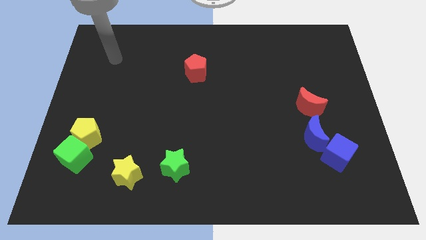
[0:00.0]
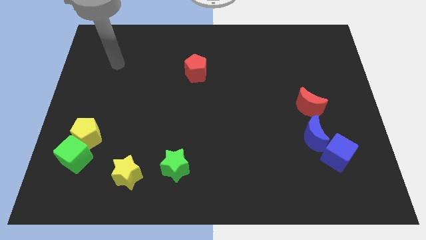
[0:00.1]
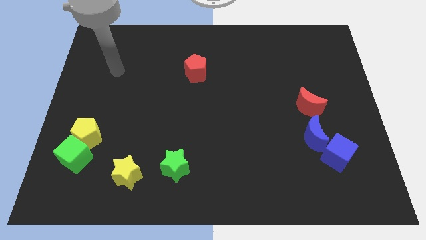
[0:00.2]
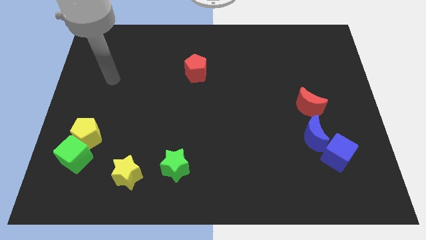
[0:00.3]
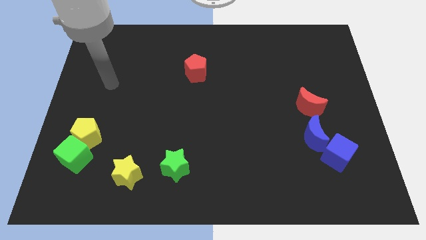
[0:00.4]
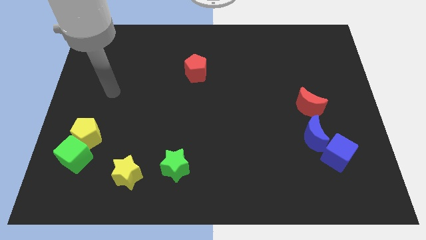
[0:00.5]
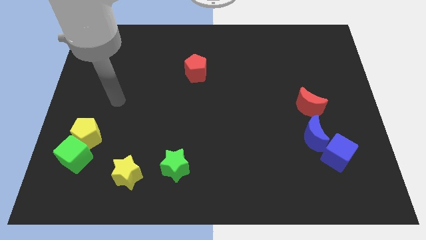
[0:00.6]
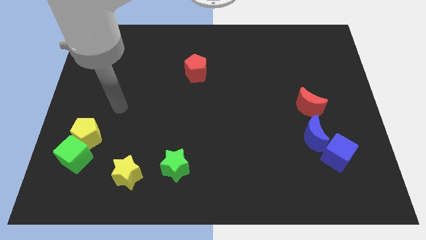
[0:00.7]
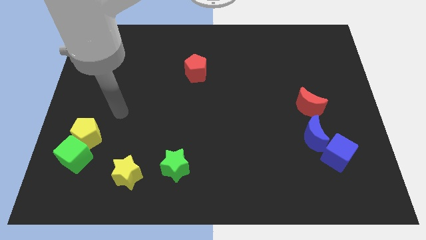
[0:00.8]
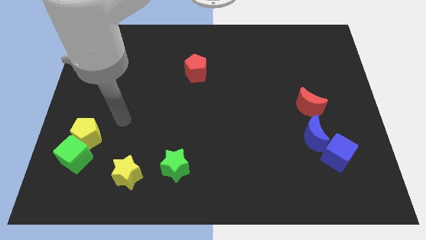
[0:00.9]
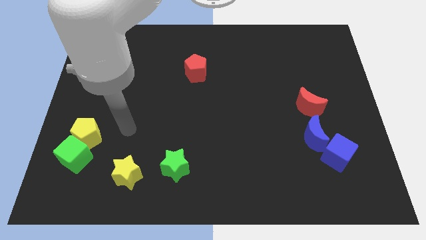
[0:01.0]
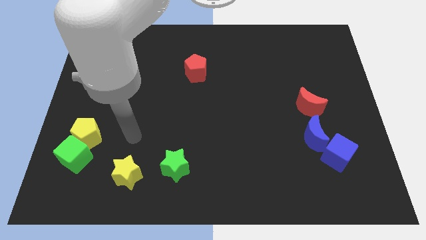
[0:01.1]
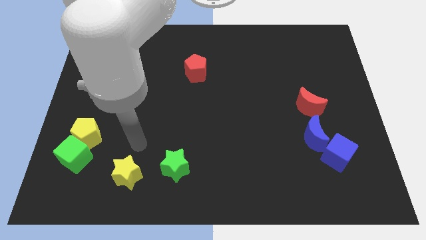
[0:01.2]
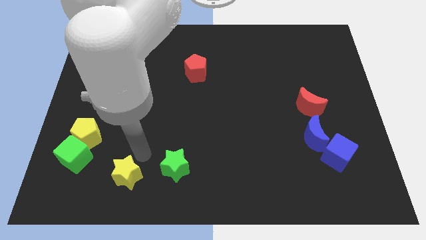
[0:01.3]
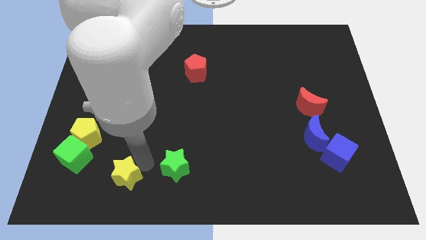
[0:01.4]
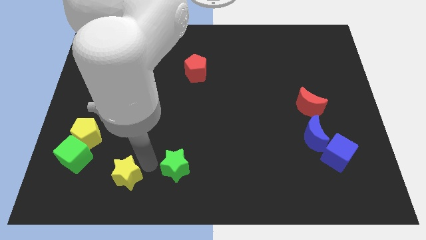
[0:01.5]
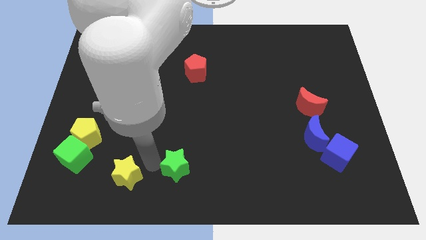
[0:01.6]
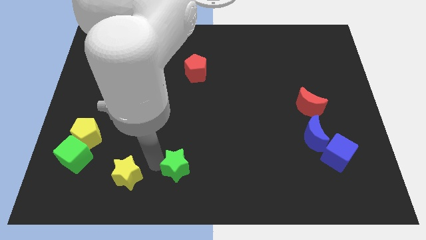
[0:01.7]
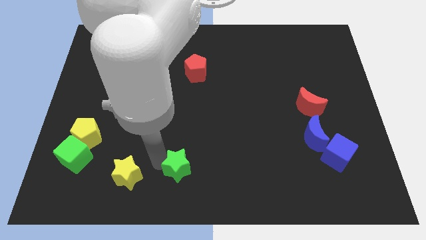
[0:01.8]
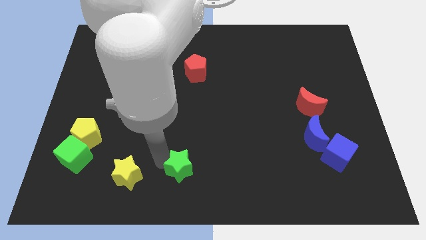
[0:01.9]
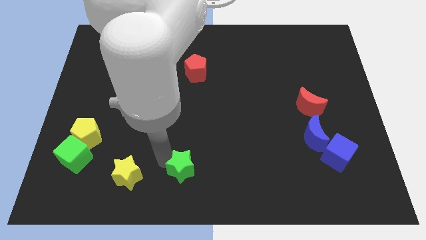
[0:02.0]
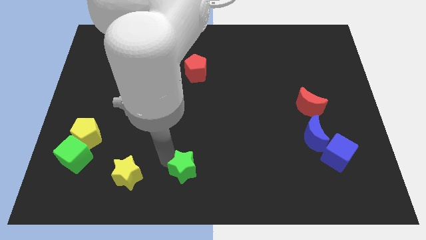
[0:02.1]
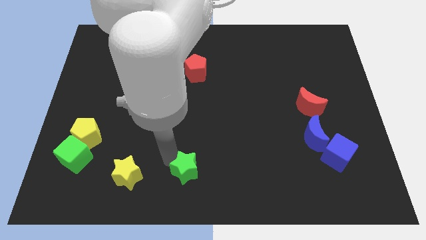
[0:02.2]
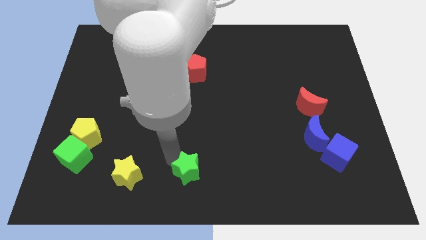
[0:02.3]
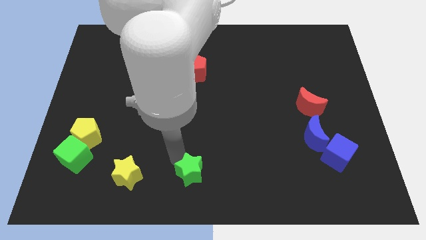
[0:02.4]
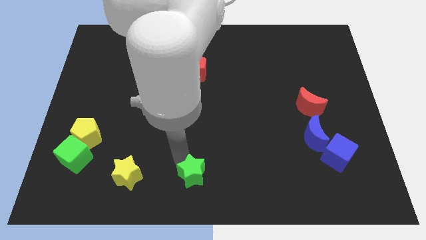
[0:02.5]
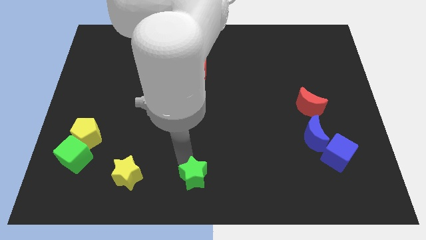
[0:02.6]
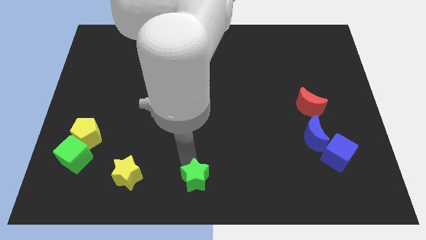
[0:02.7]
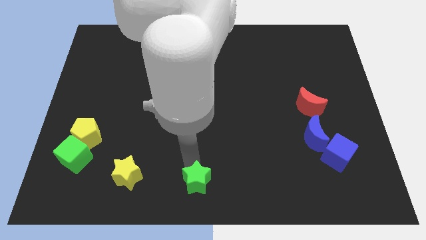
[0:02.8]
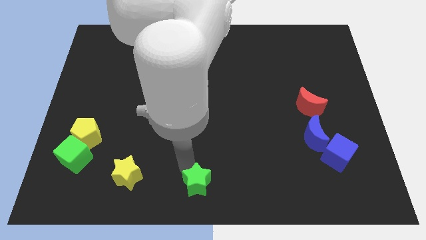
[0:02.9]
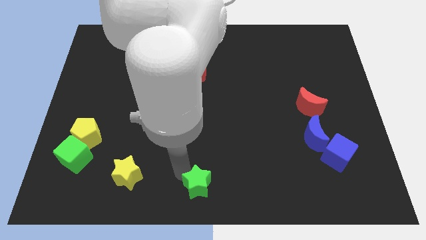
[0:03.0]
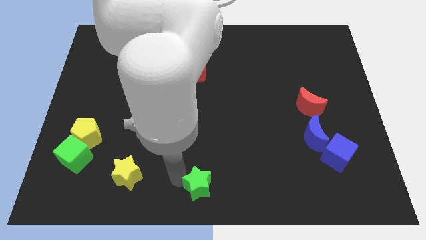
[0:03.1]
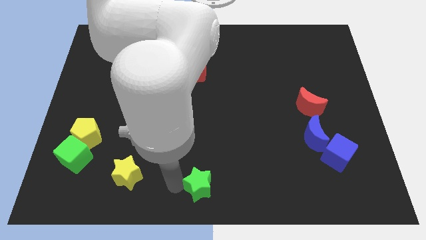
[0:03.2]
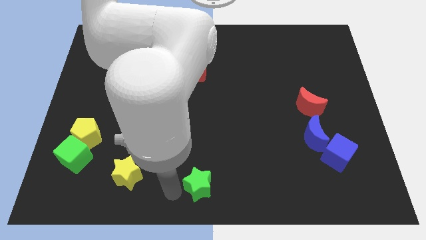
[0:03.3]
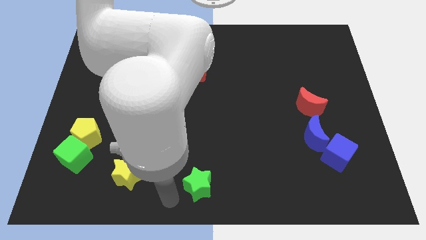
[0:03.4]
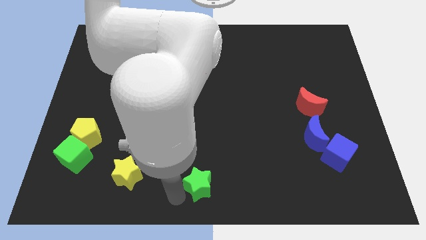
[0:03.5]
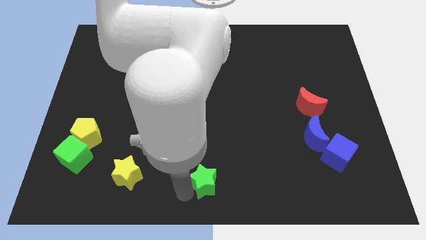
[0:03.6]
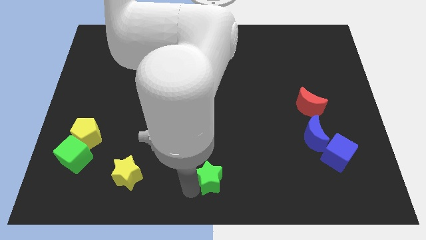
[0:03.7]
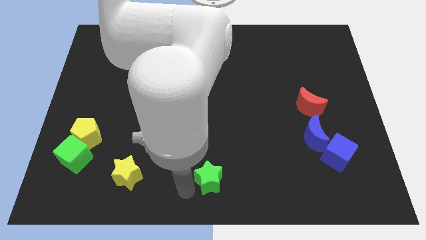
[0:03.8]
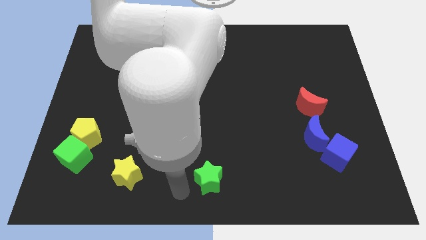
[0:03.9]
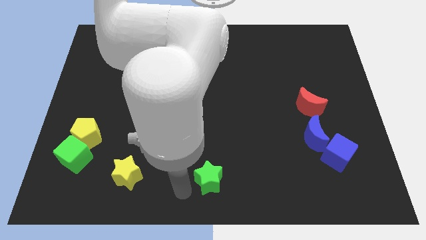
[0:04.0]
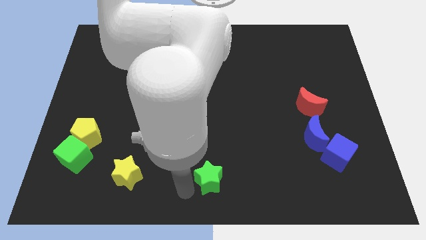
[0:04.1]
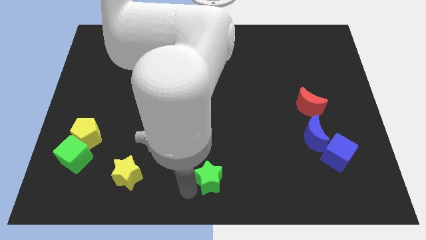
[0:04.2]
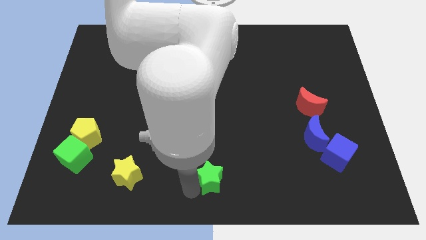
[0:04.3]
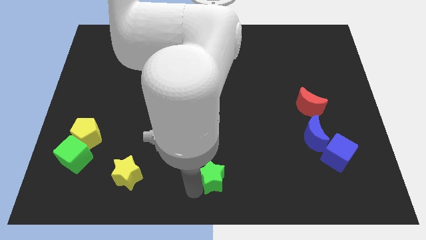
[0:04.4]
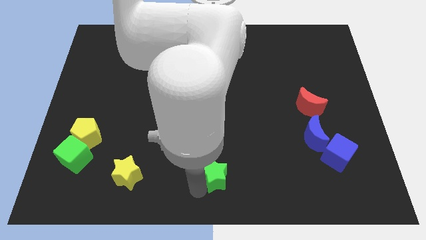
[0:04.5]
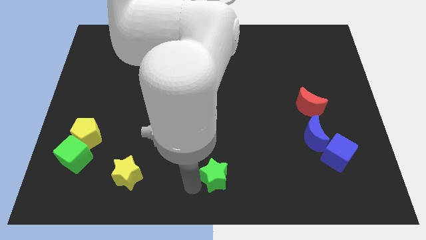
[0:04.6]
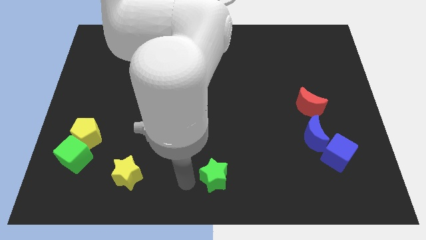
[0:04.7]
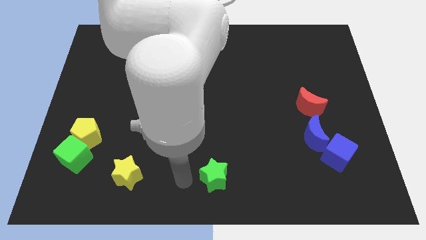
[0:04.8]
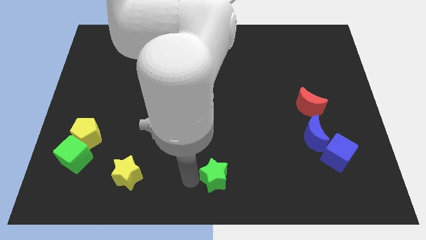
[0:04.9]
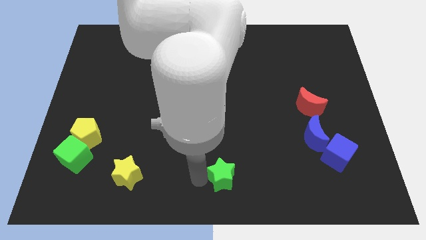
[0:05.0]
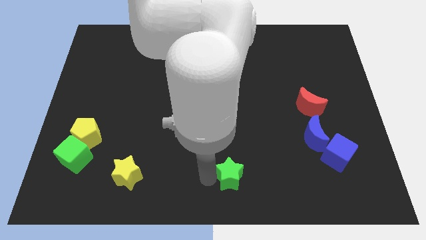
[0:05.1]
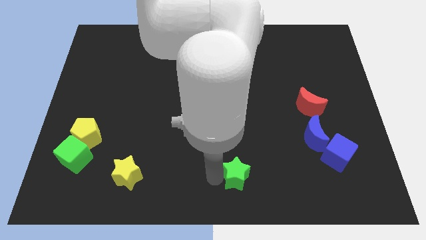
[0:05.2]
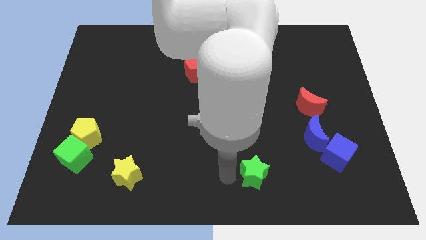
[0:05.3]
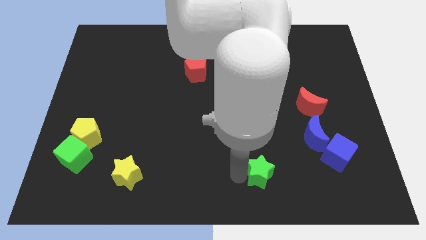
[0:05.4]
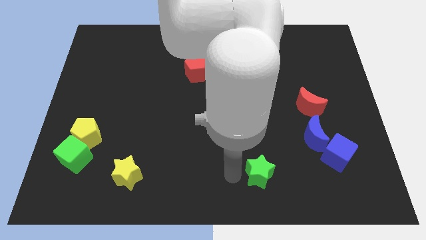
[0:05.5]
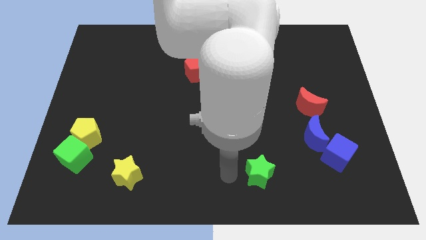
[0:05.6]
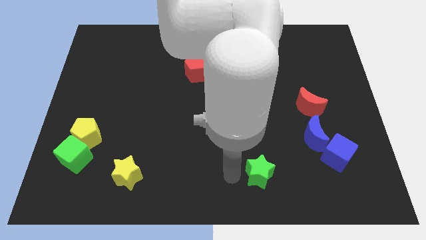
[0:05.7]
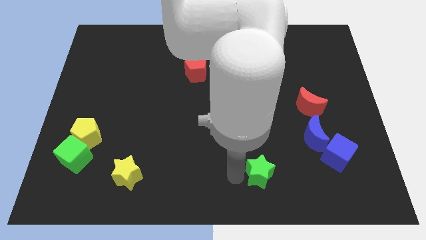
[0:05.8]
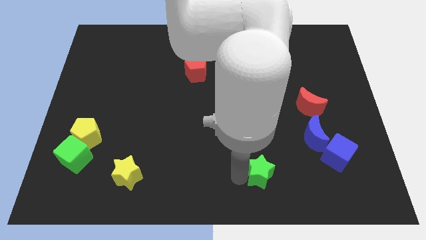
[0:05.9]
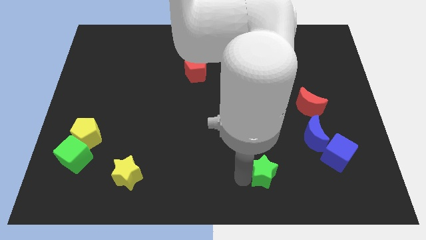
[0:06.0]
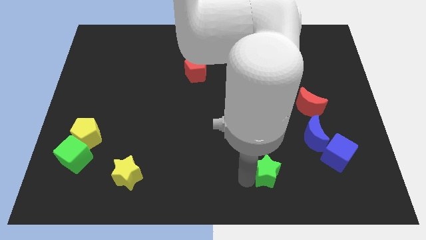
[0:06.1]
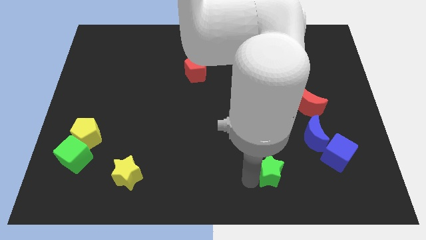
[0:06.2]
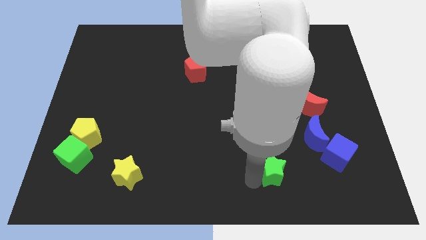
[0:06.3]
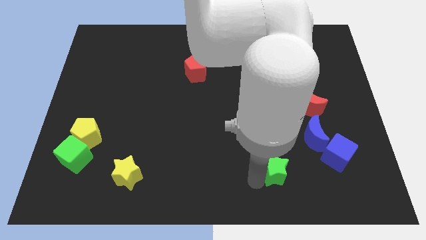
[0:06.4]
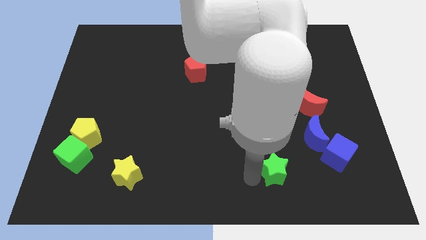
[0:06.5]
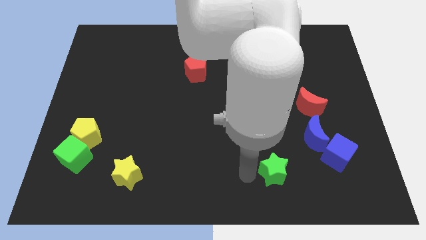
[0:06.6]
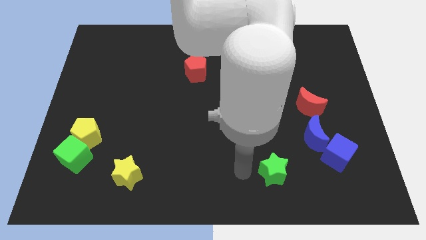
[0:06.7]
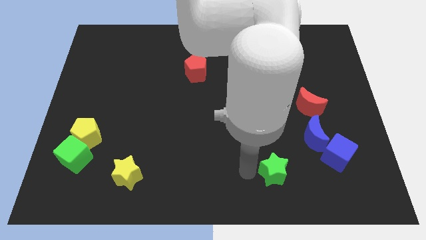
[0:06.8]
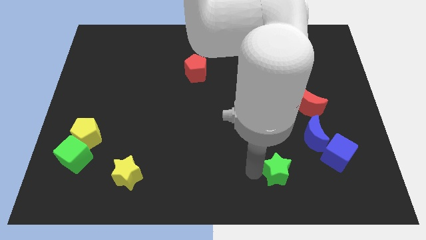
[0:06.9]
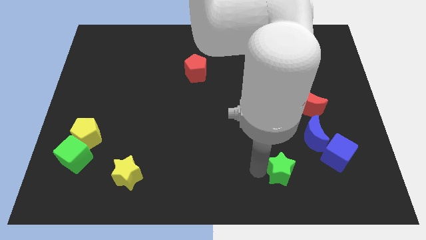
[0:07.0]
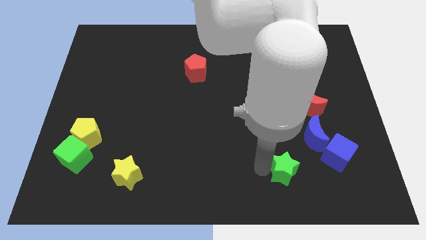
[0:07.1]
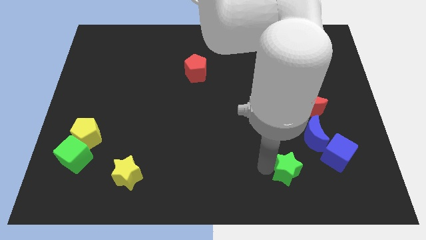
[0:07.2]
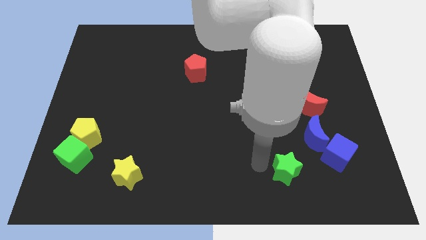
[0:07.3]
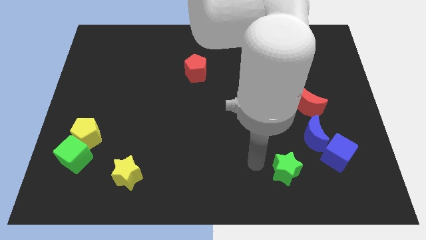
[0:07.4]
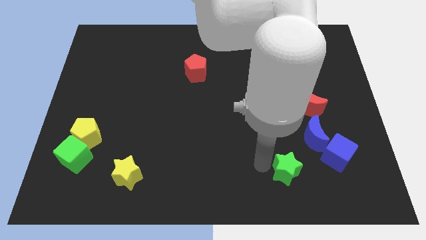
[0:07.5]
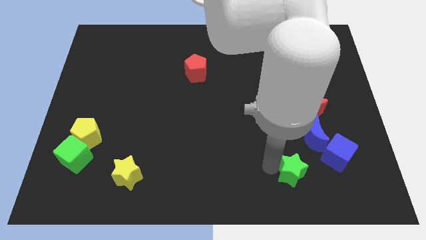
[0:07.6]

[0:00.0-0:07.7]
slide the green star diagonally down and to the left of the blue cube
